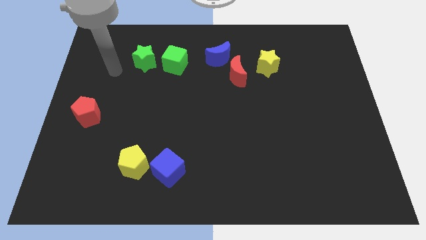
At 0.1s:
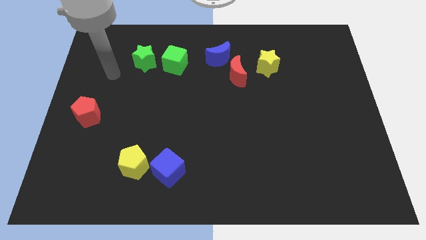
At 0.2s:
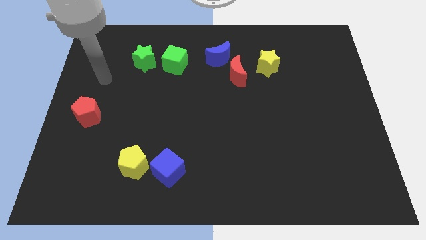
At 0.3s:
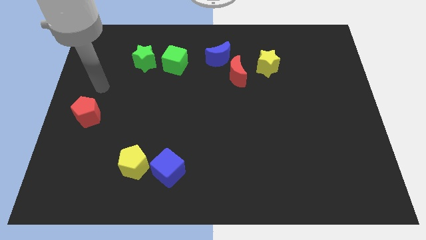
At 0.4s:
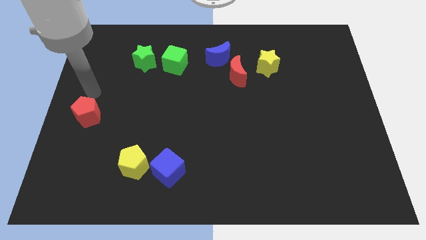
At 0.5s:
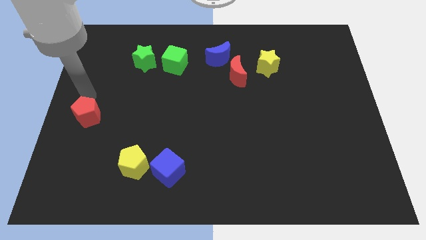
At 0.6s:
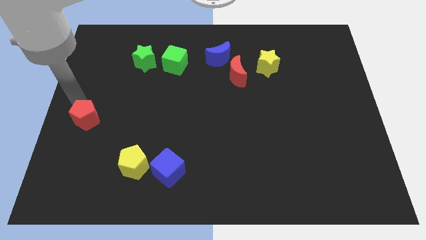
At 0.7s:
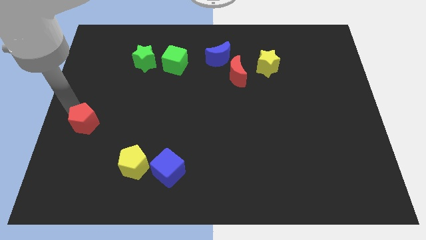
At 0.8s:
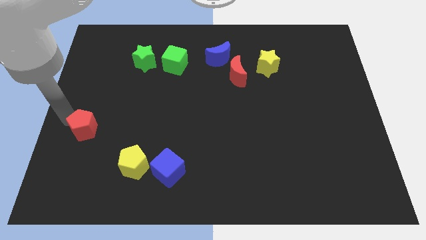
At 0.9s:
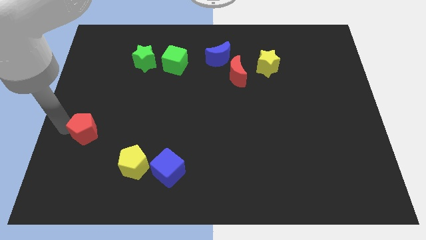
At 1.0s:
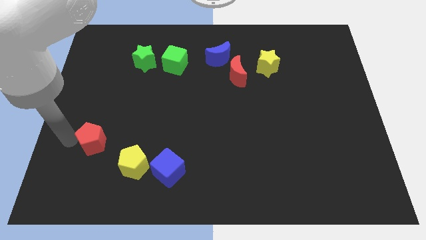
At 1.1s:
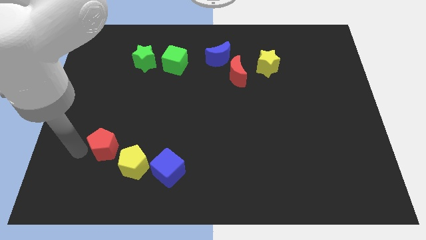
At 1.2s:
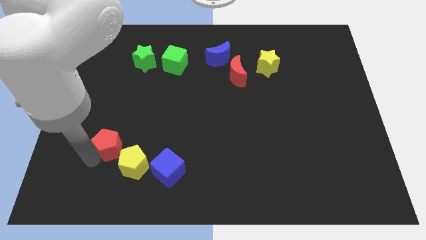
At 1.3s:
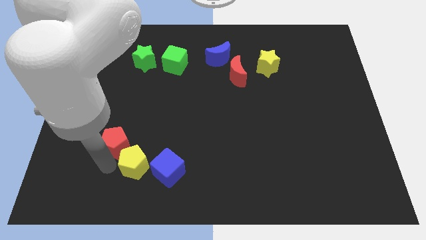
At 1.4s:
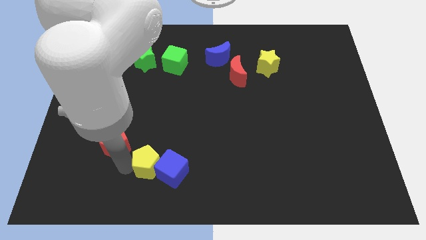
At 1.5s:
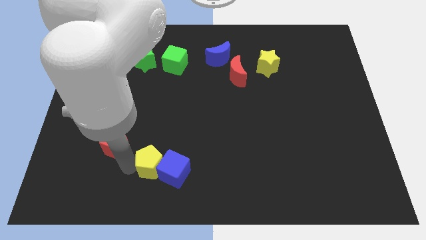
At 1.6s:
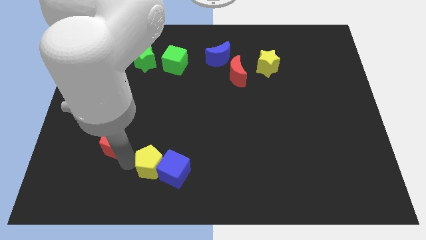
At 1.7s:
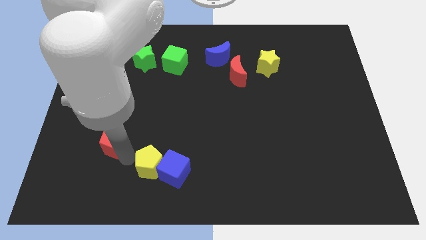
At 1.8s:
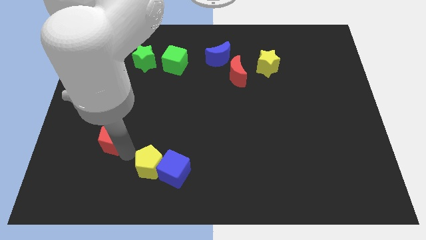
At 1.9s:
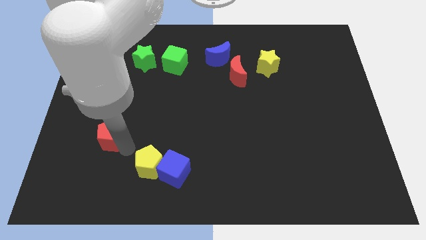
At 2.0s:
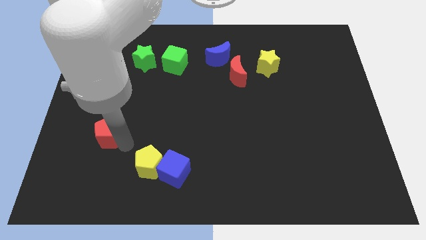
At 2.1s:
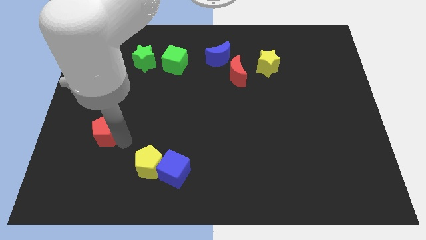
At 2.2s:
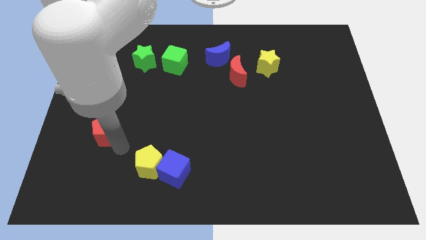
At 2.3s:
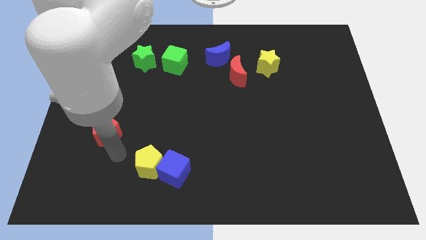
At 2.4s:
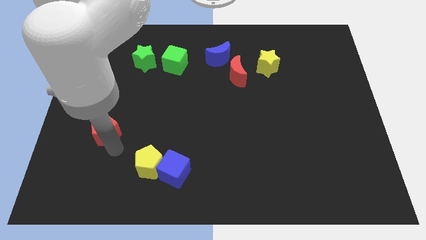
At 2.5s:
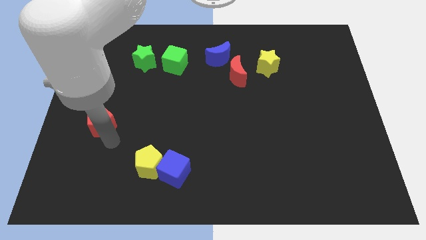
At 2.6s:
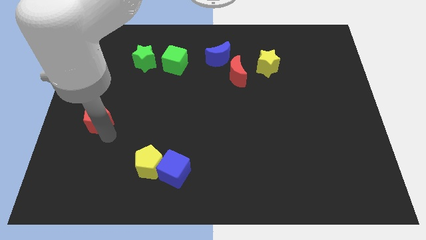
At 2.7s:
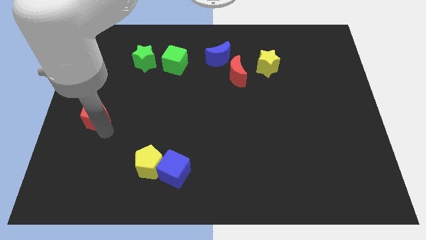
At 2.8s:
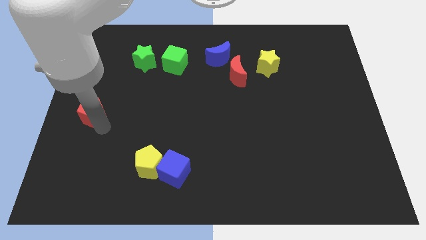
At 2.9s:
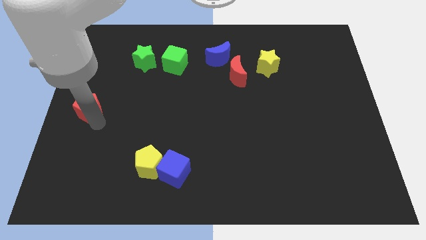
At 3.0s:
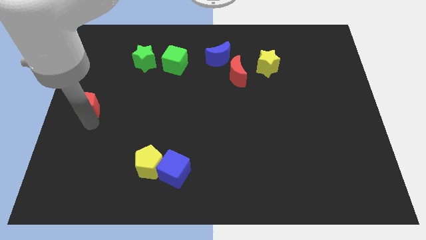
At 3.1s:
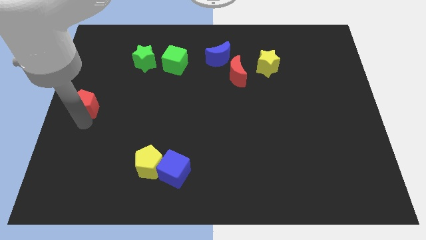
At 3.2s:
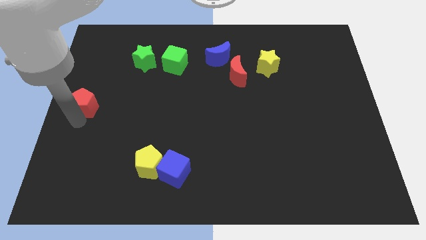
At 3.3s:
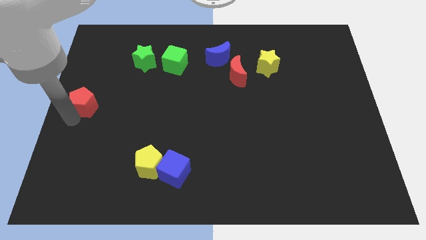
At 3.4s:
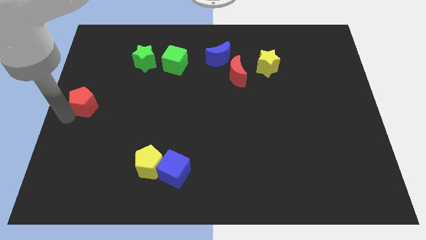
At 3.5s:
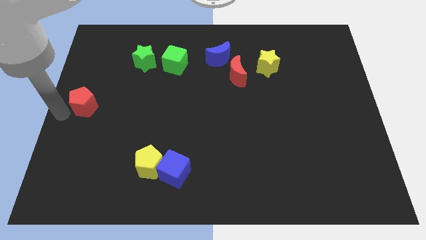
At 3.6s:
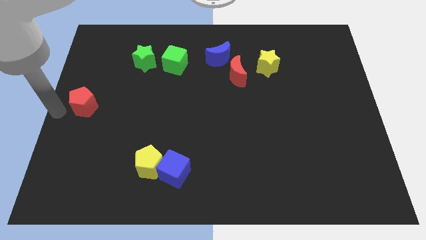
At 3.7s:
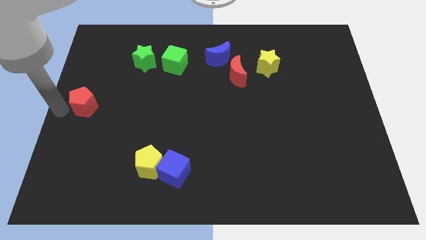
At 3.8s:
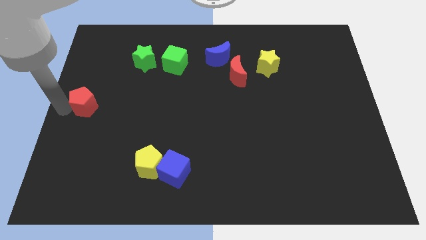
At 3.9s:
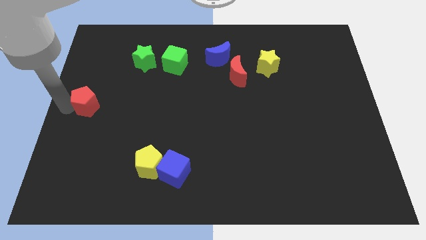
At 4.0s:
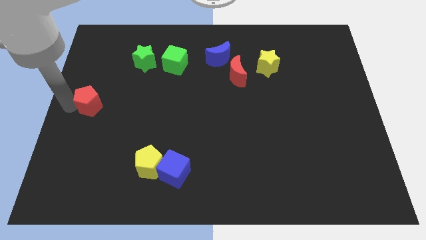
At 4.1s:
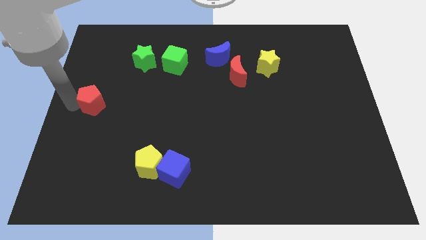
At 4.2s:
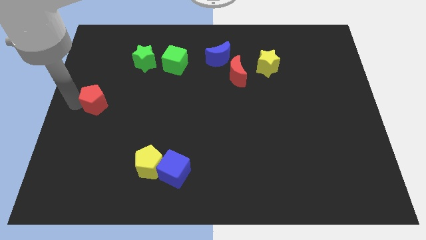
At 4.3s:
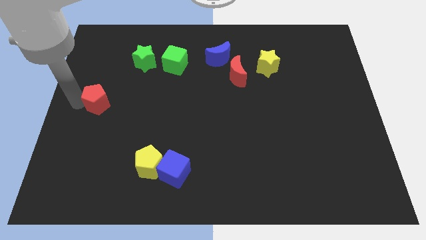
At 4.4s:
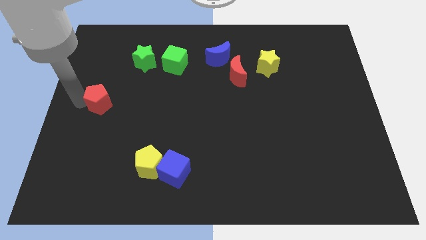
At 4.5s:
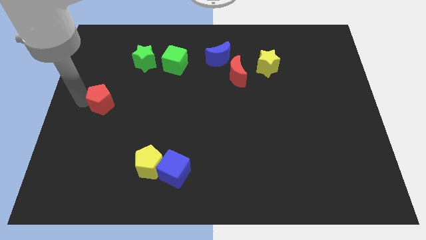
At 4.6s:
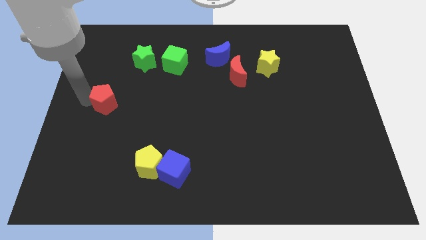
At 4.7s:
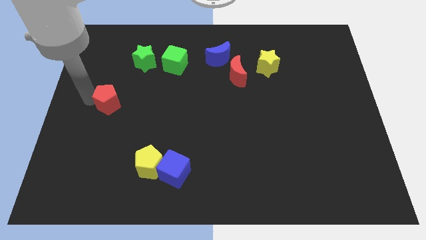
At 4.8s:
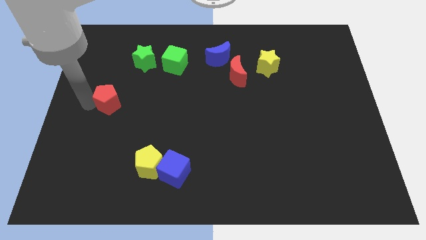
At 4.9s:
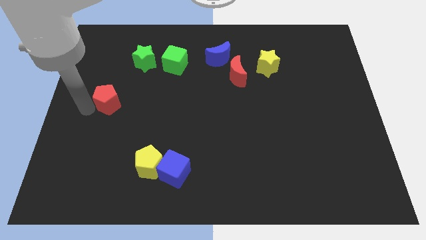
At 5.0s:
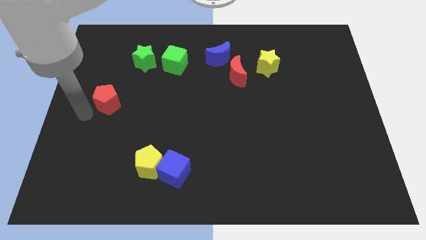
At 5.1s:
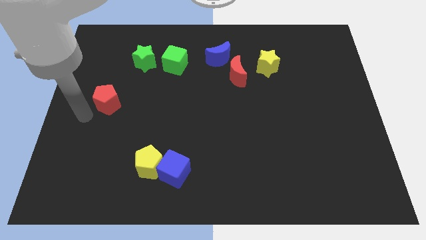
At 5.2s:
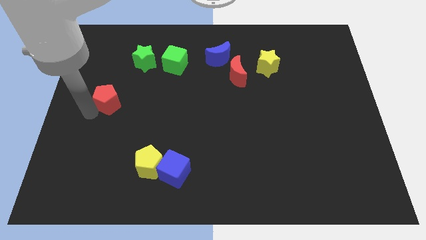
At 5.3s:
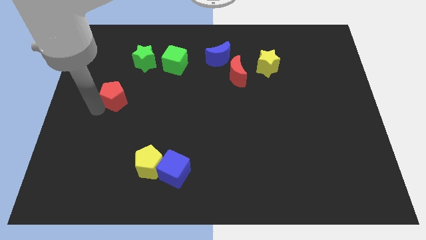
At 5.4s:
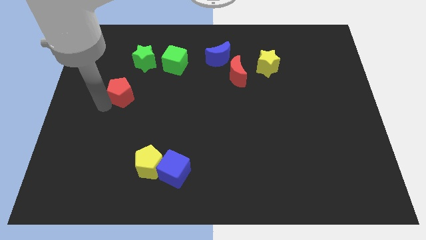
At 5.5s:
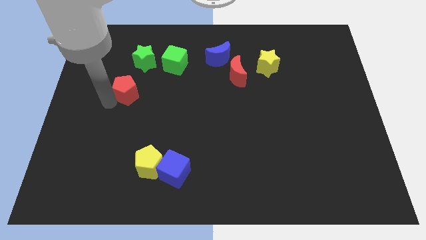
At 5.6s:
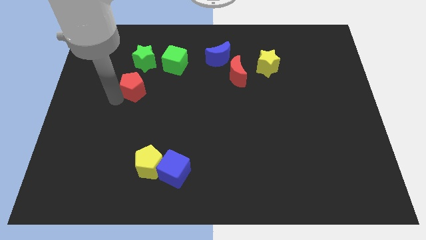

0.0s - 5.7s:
put the red pentagon to the bottom left of the green cube

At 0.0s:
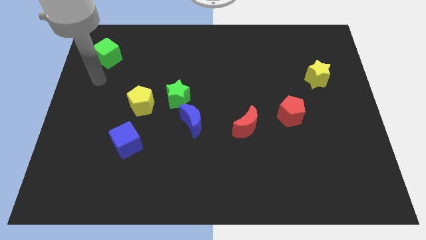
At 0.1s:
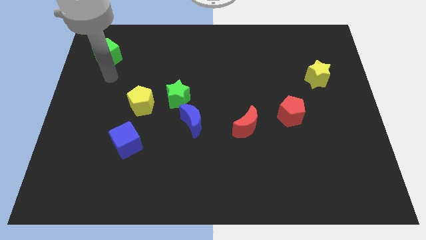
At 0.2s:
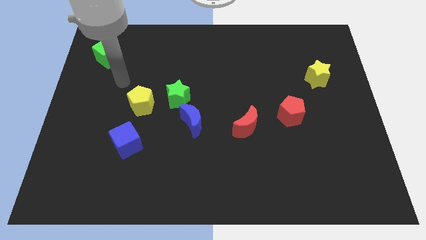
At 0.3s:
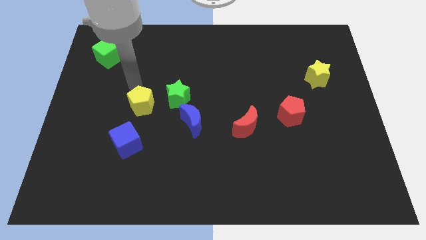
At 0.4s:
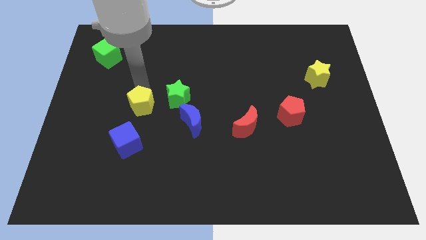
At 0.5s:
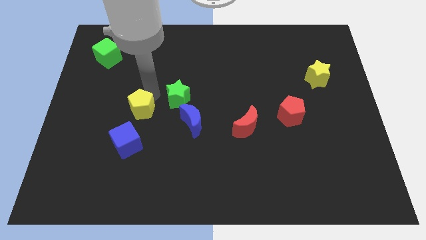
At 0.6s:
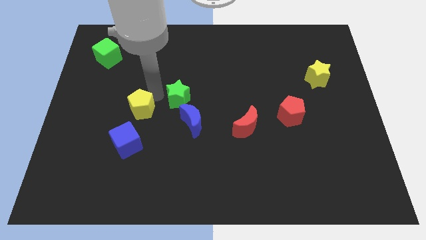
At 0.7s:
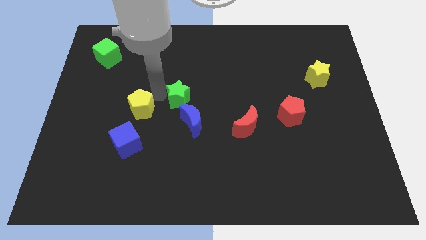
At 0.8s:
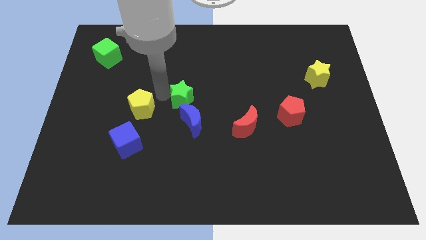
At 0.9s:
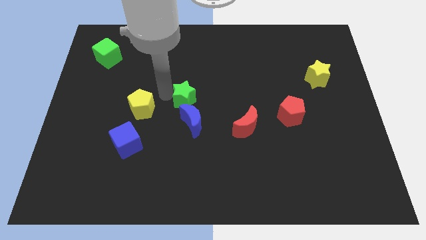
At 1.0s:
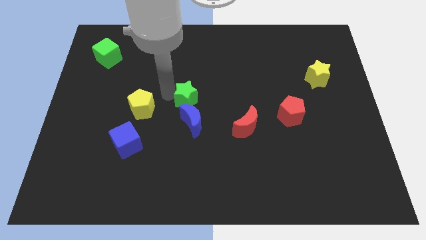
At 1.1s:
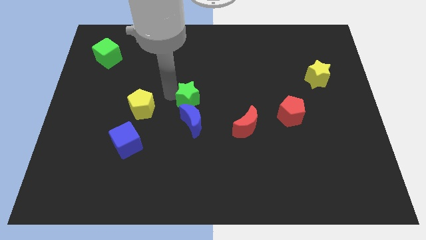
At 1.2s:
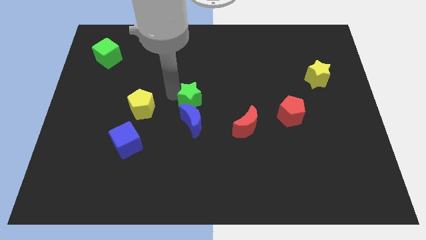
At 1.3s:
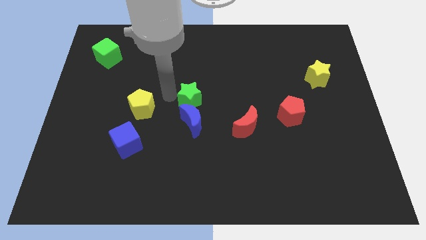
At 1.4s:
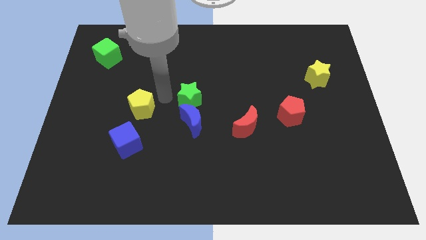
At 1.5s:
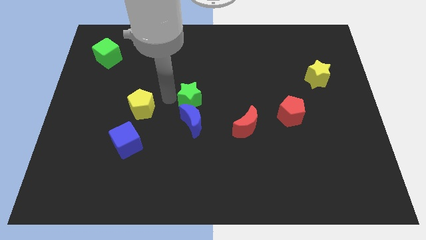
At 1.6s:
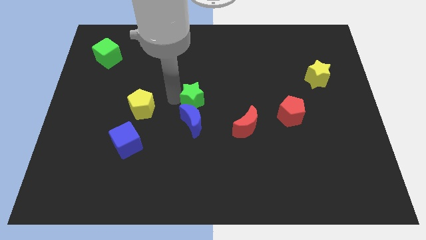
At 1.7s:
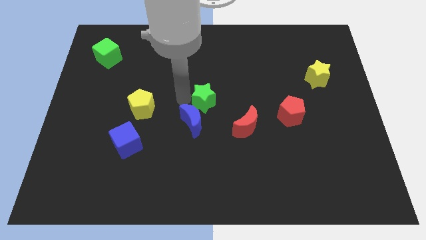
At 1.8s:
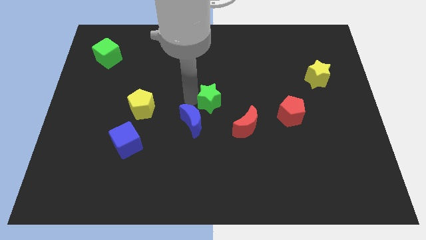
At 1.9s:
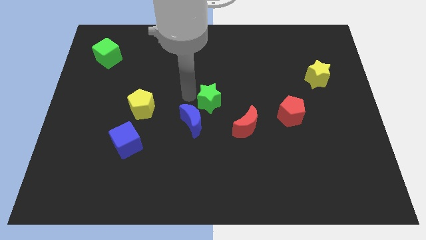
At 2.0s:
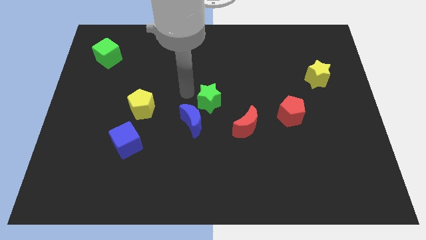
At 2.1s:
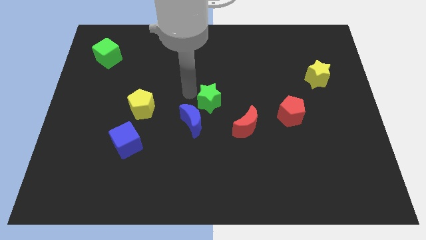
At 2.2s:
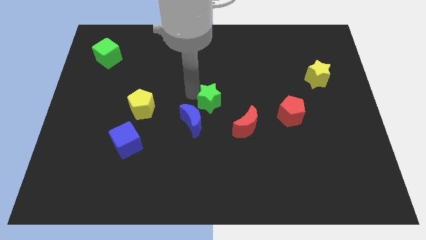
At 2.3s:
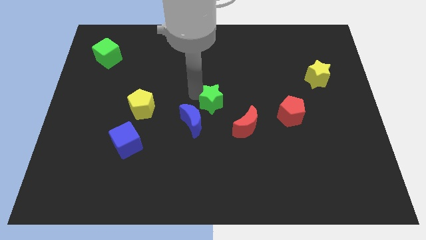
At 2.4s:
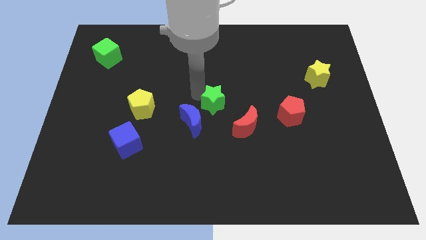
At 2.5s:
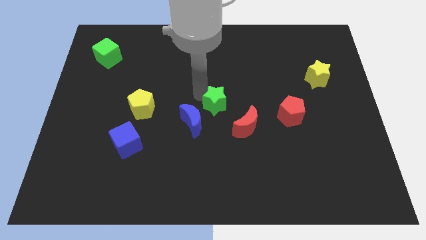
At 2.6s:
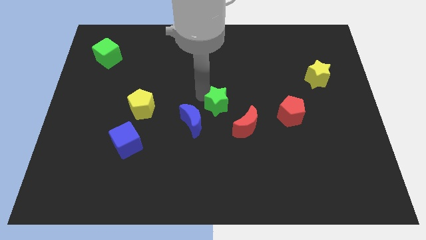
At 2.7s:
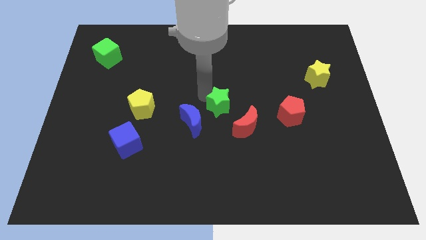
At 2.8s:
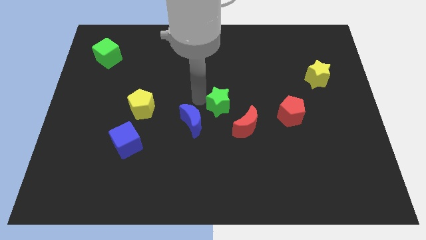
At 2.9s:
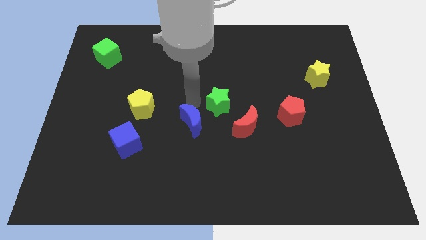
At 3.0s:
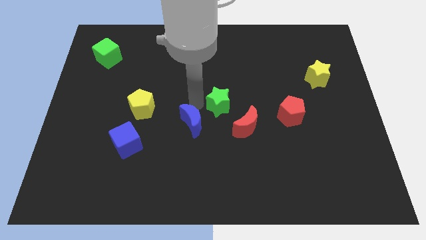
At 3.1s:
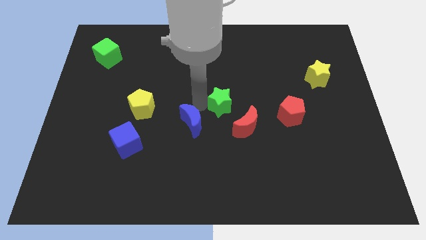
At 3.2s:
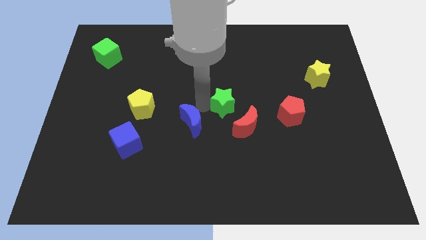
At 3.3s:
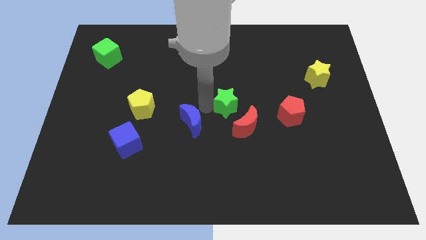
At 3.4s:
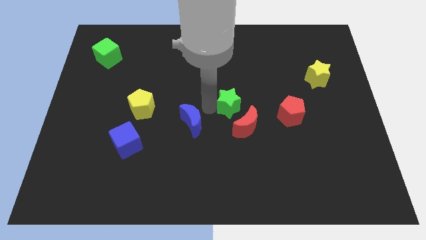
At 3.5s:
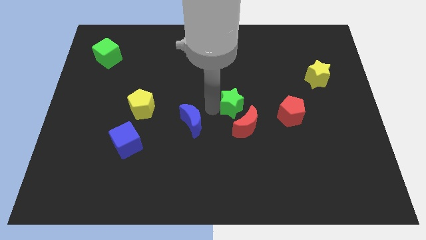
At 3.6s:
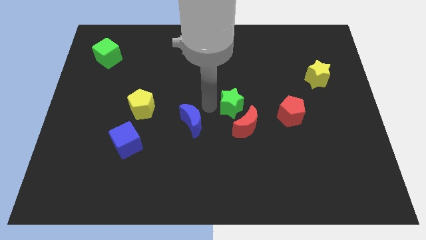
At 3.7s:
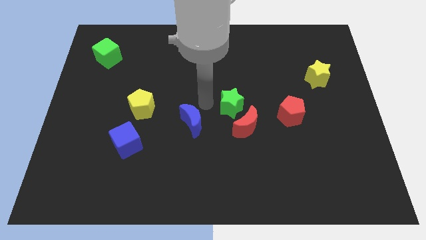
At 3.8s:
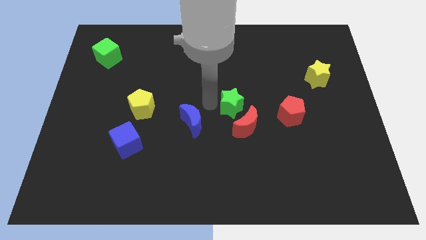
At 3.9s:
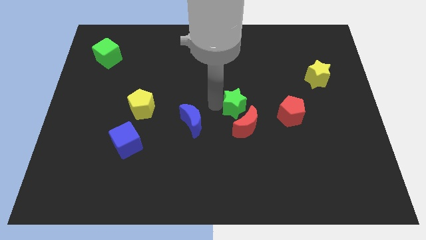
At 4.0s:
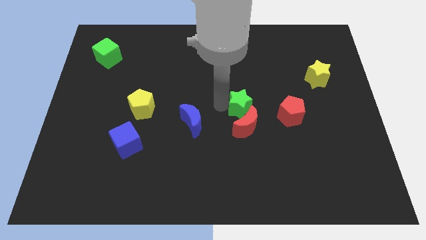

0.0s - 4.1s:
put the green star diagonally up and to the right of the red moon
